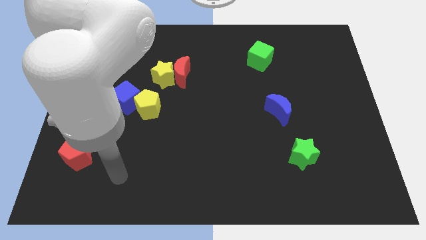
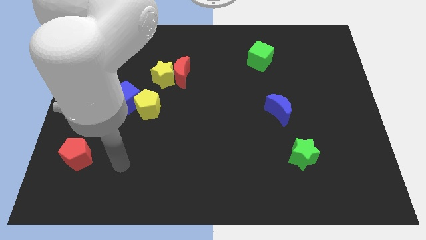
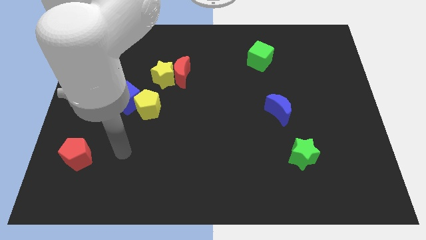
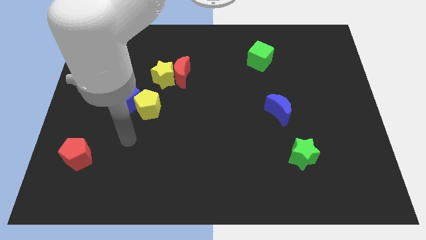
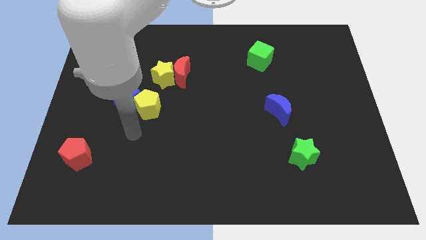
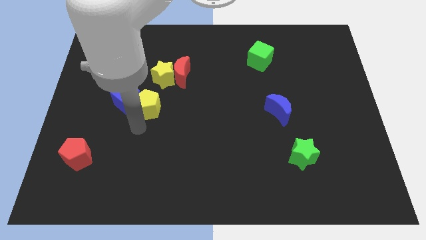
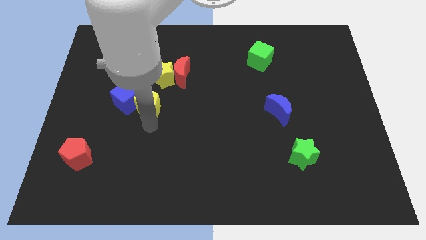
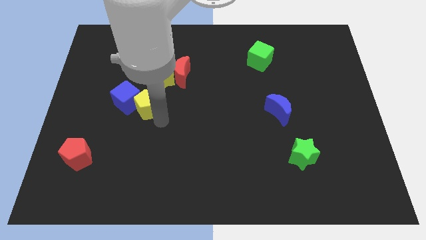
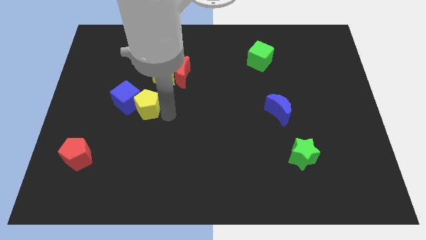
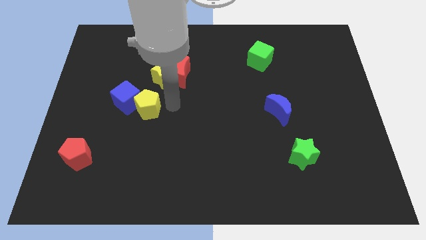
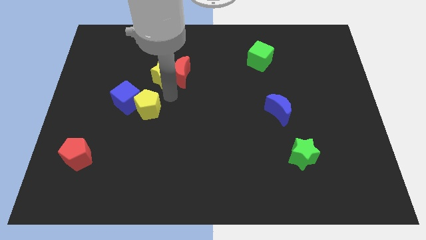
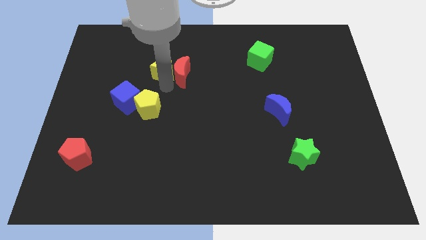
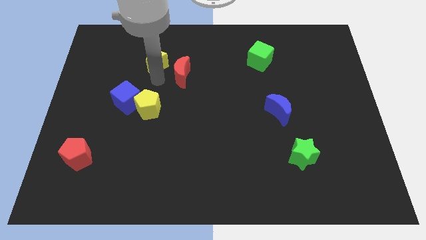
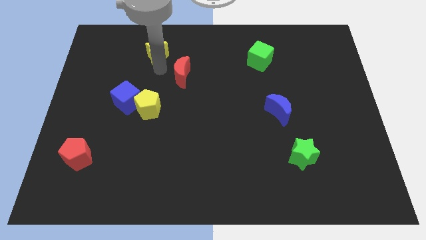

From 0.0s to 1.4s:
move the red moon away from the yellow star

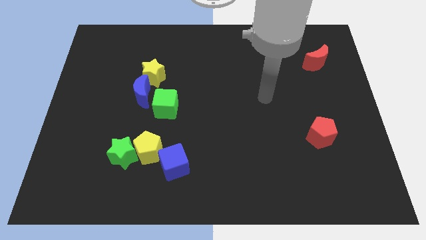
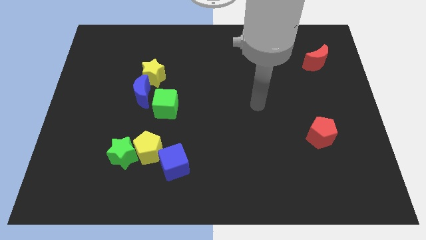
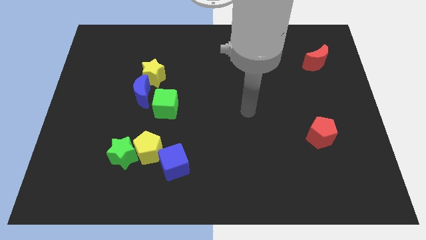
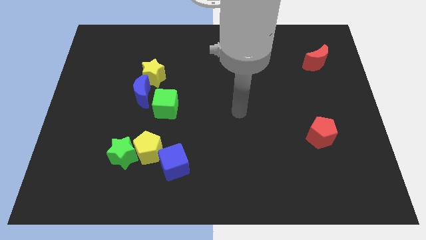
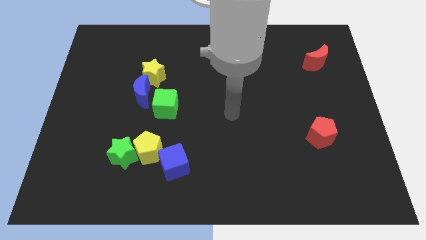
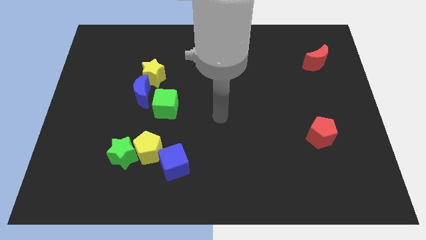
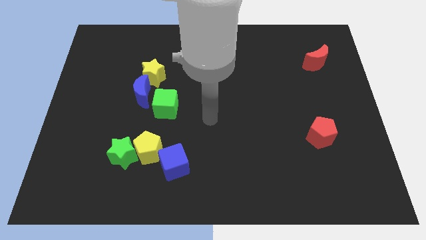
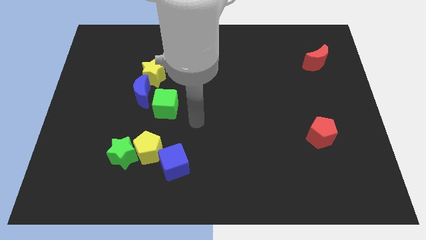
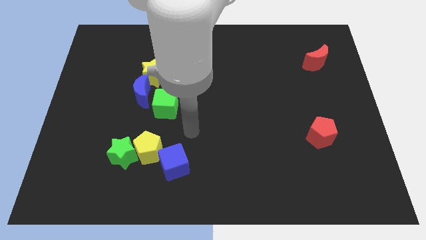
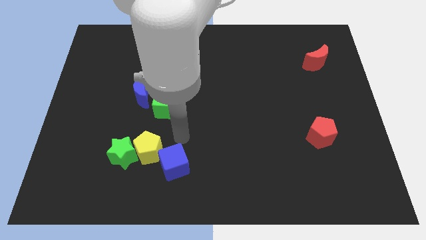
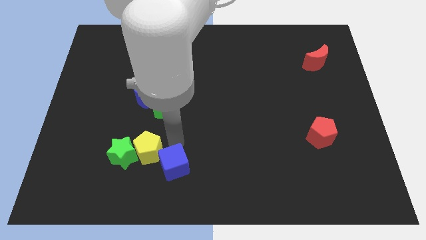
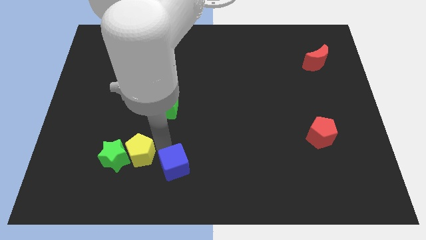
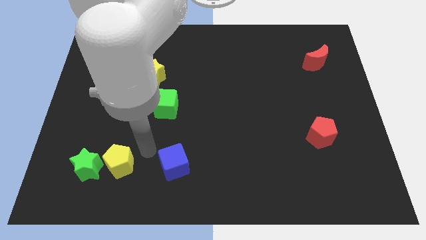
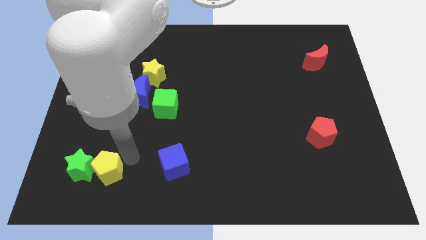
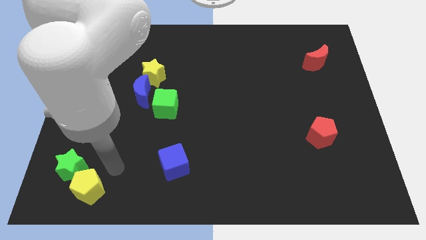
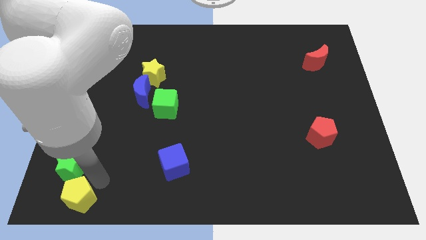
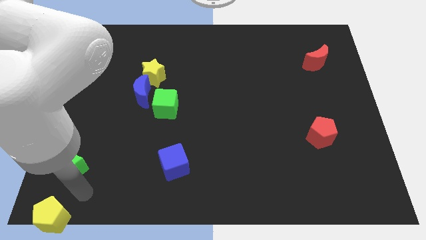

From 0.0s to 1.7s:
separate the green star from the yellow pentagon

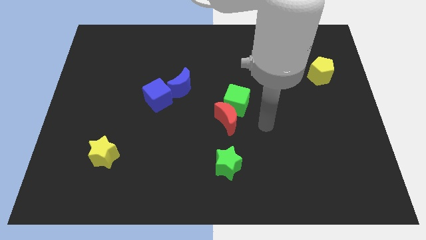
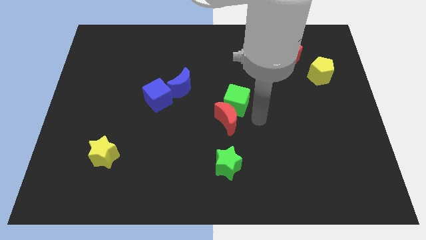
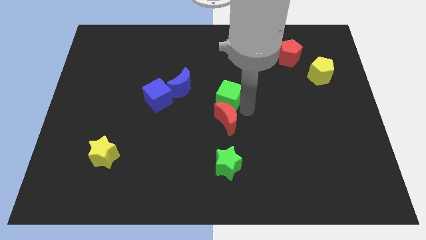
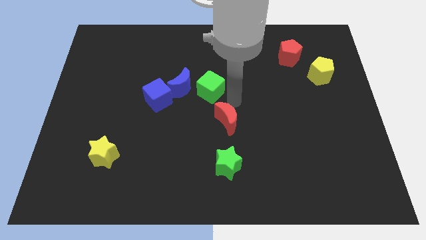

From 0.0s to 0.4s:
move the red moon away from the green cube

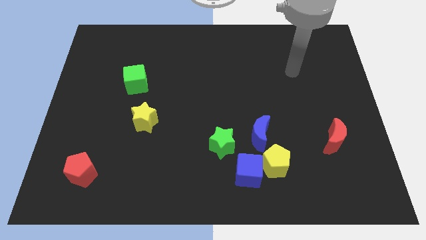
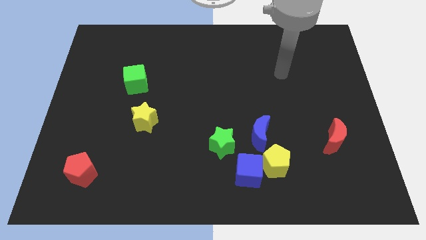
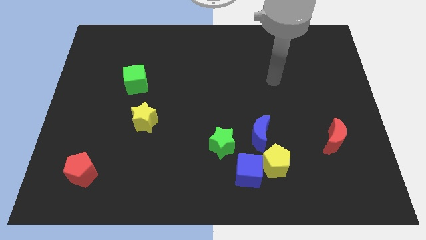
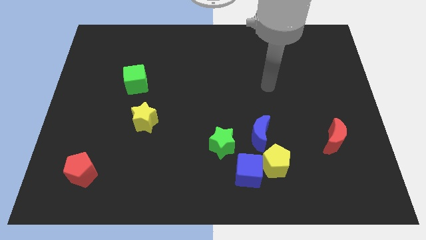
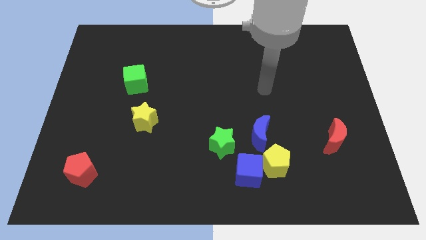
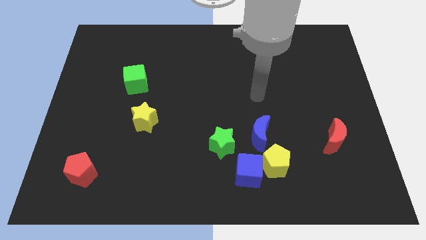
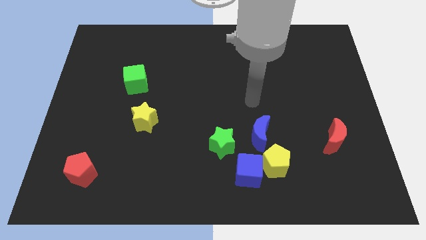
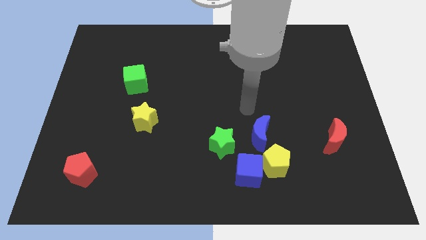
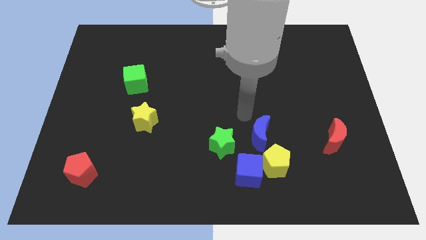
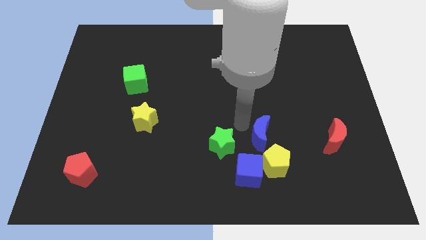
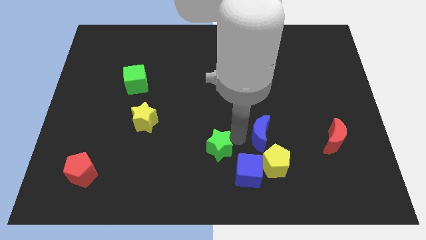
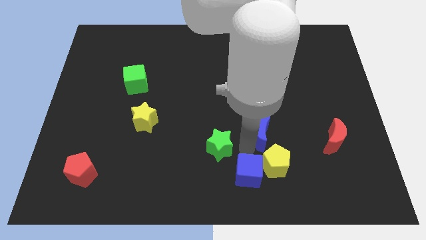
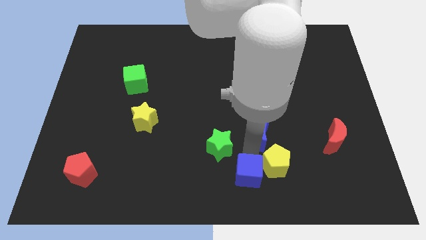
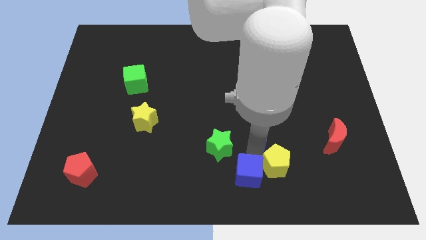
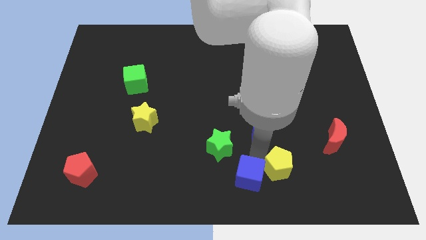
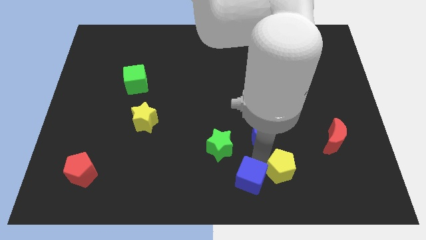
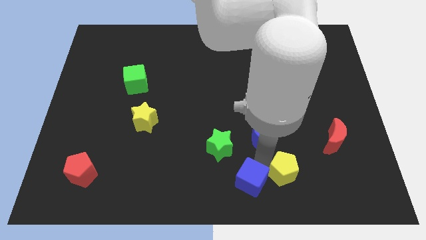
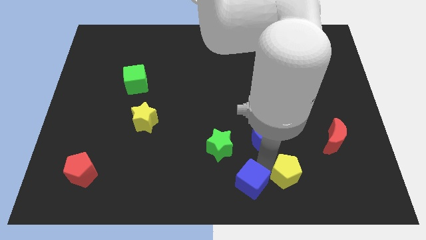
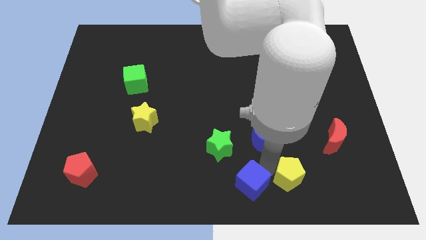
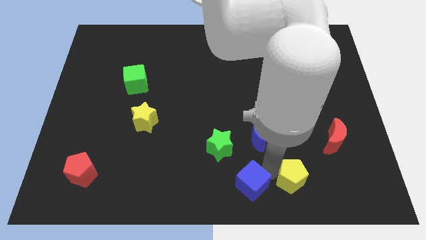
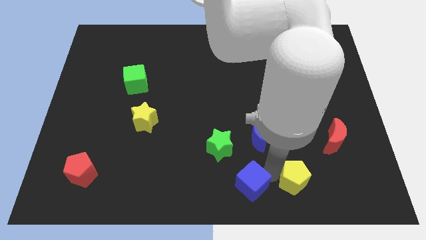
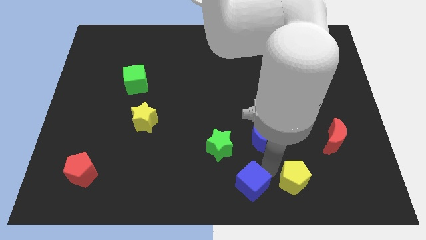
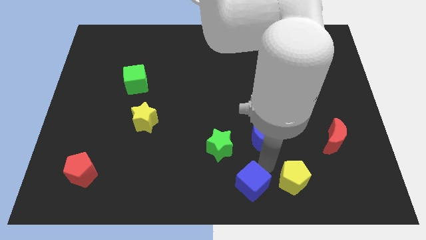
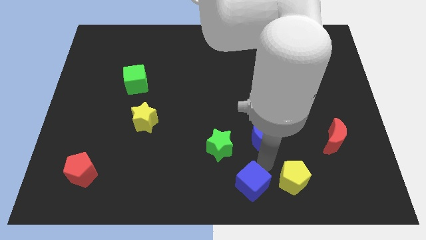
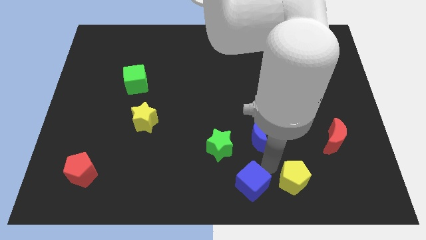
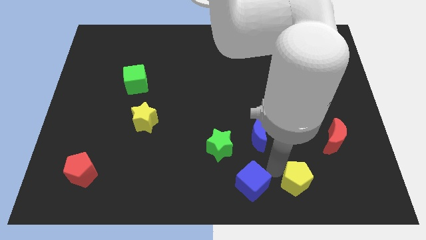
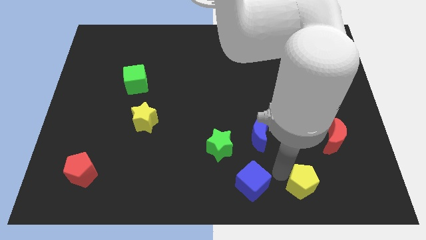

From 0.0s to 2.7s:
separate the yellow pentagon from the blue cube and blue moon

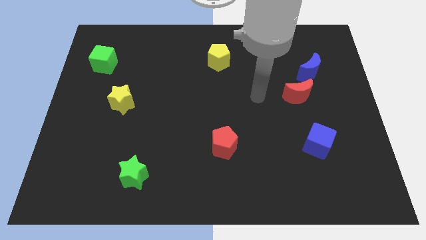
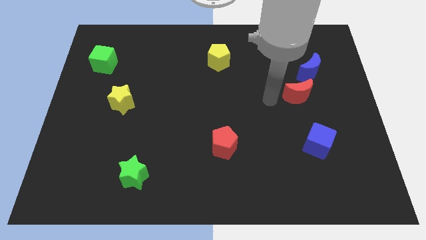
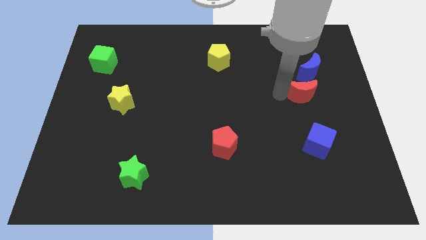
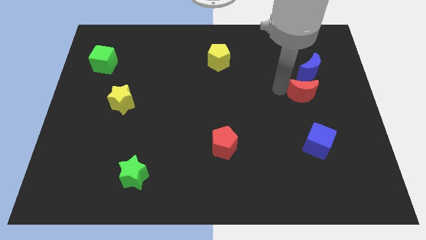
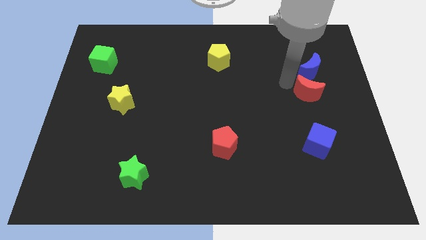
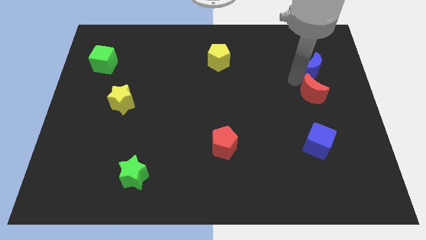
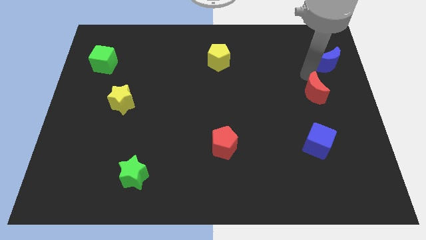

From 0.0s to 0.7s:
move the red moon away from the blue moon

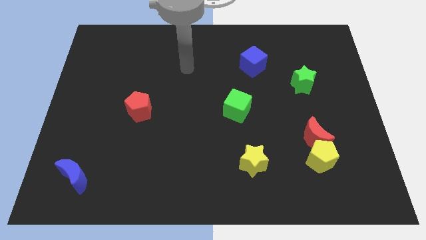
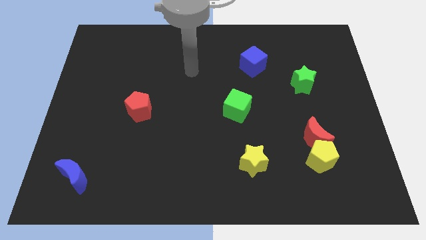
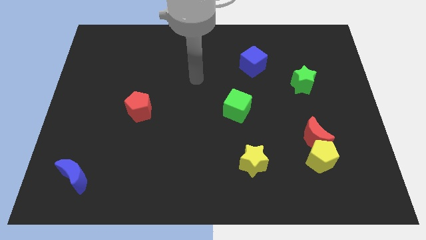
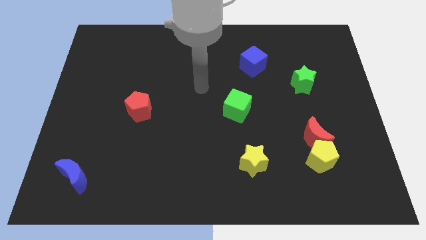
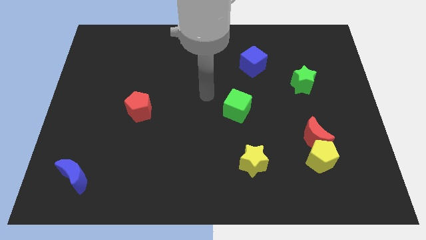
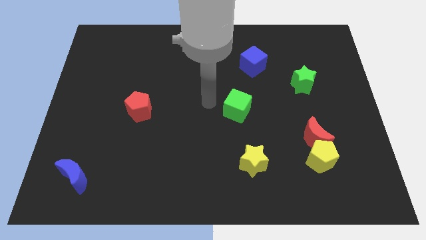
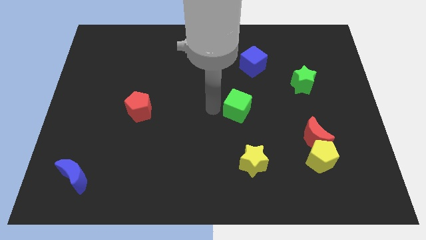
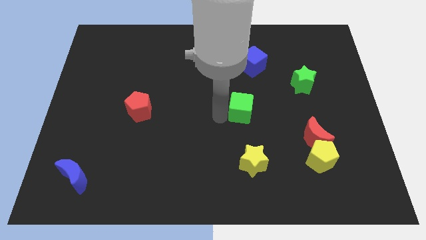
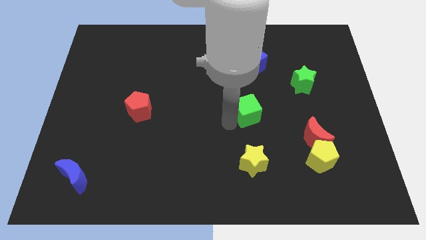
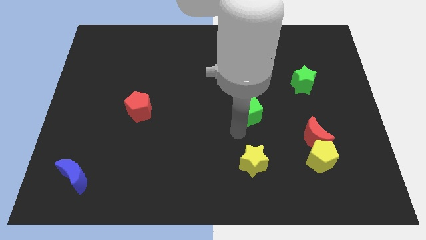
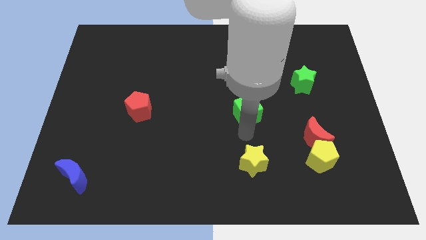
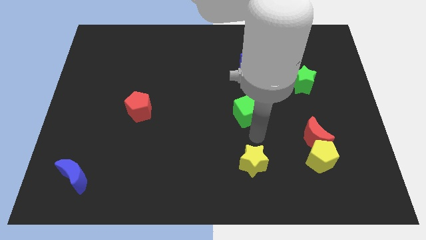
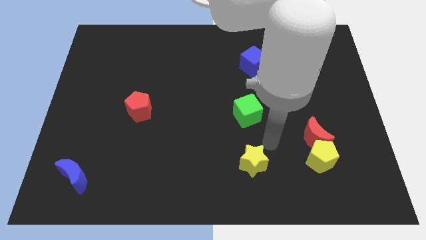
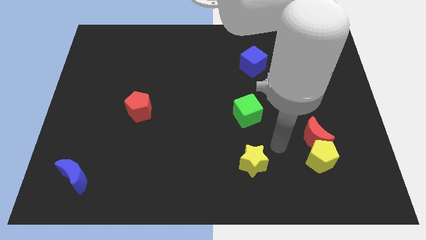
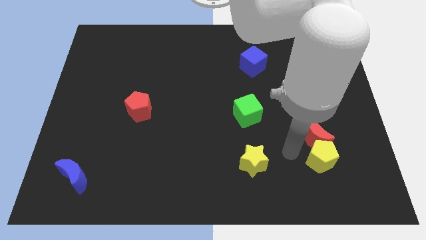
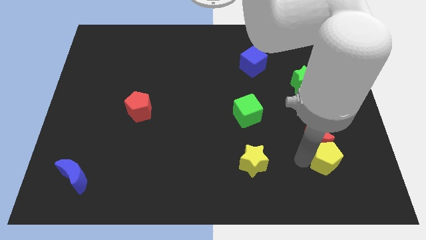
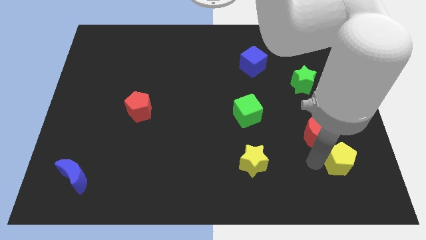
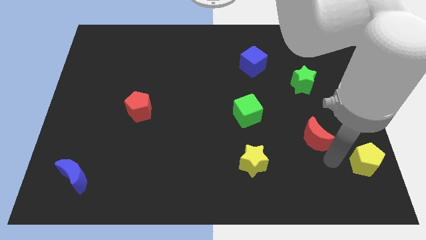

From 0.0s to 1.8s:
pull the red moon apart from the yellow pentagon

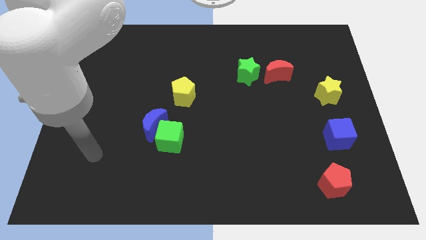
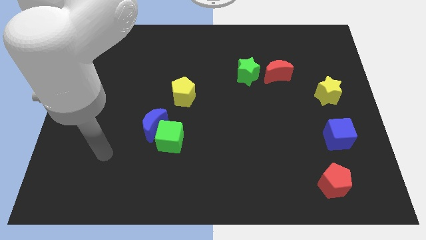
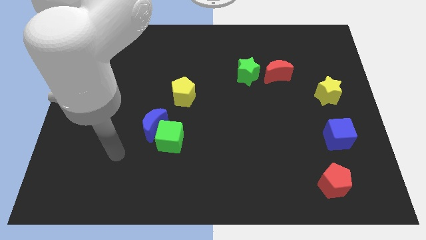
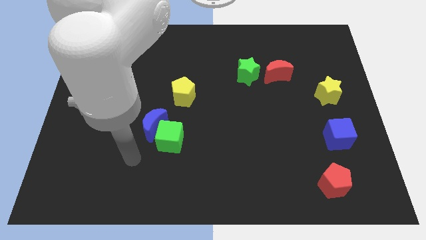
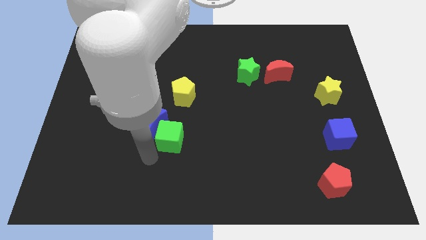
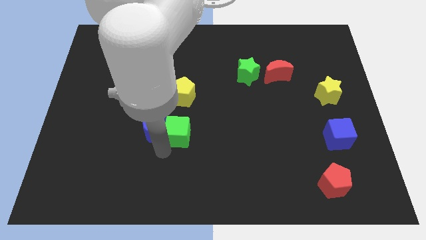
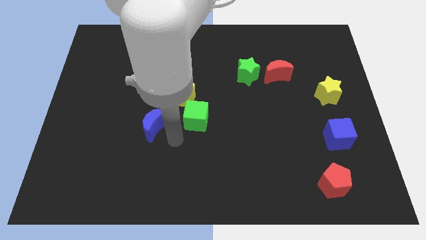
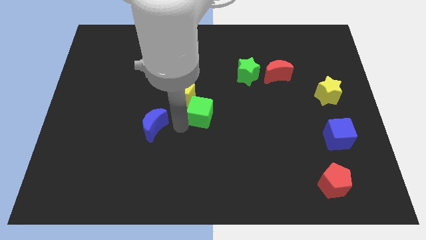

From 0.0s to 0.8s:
pull the blue moon apart from the green cube
